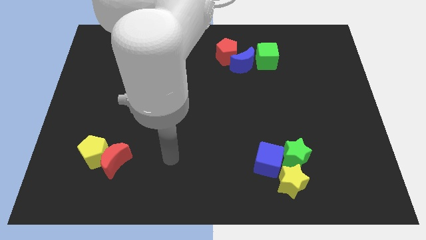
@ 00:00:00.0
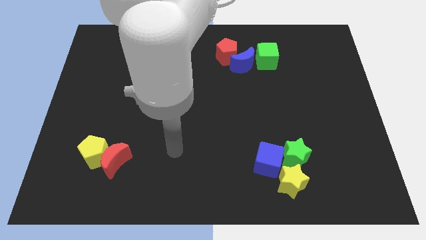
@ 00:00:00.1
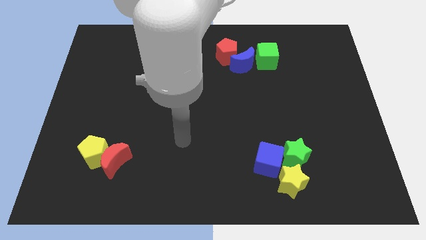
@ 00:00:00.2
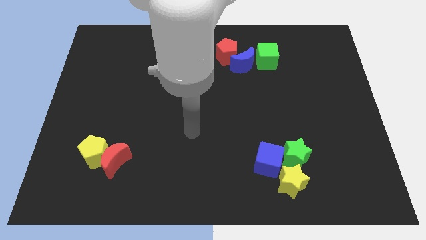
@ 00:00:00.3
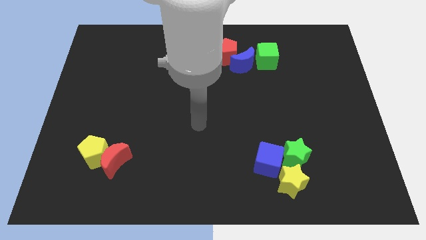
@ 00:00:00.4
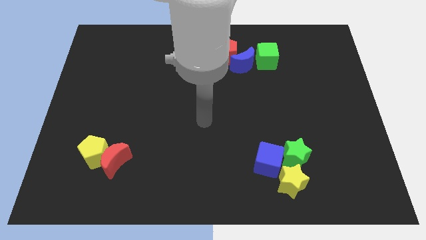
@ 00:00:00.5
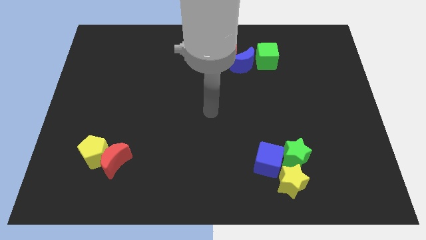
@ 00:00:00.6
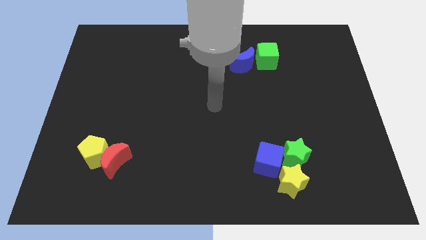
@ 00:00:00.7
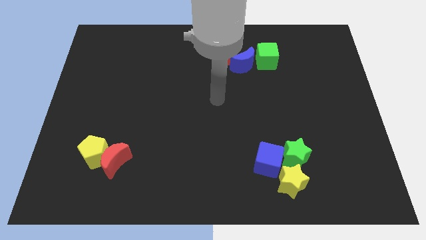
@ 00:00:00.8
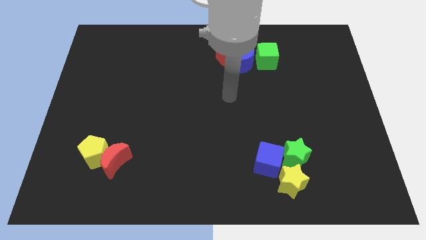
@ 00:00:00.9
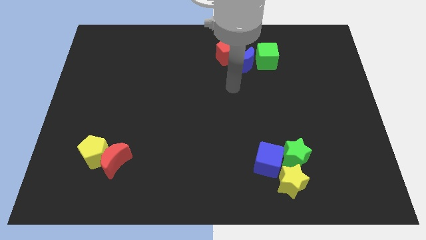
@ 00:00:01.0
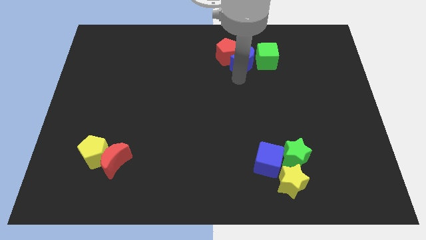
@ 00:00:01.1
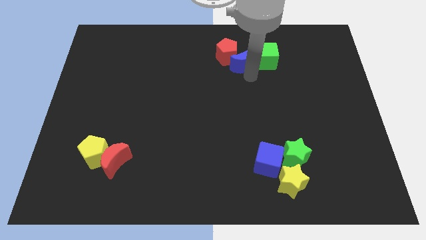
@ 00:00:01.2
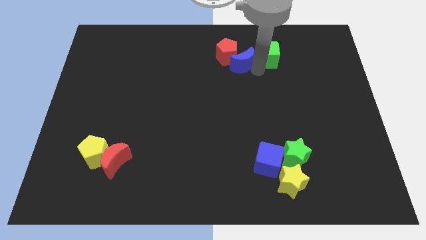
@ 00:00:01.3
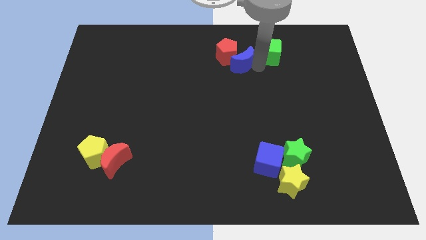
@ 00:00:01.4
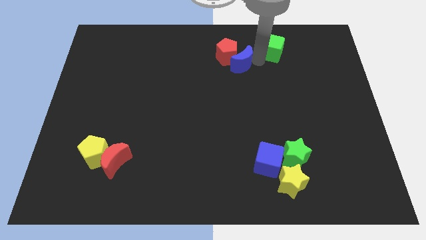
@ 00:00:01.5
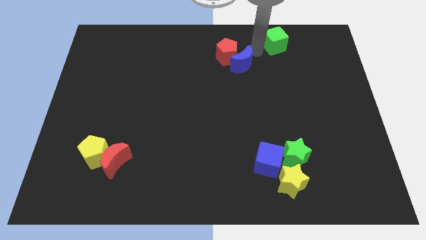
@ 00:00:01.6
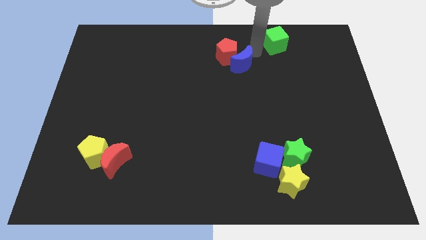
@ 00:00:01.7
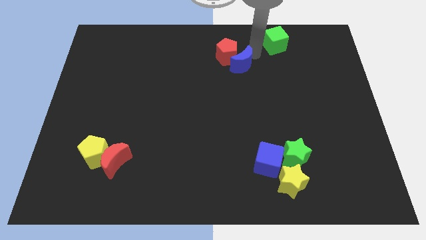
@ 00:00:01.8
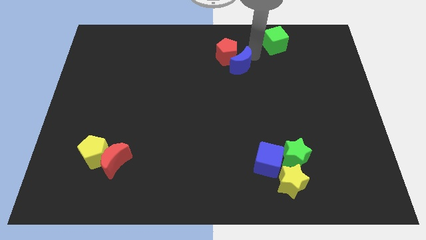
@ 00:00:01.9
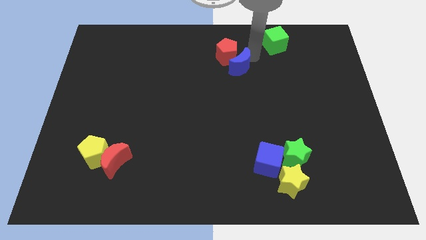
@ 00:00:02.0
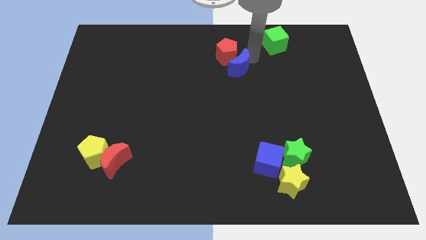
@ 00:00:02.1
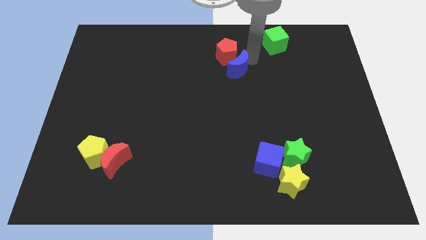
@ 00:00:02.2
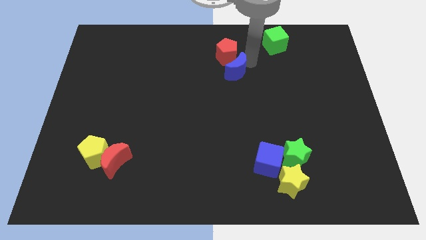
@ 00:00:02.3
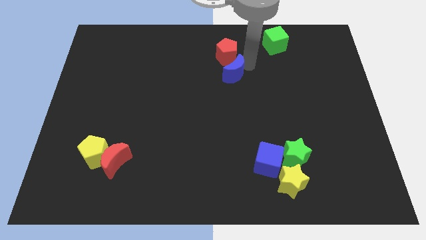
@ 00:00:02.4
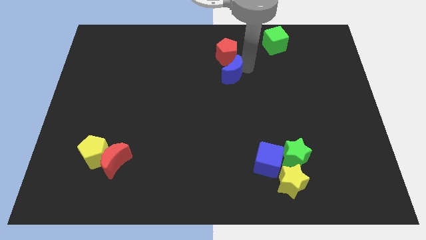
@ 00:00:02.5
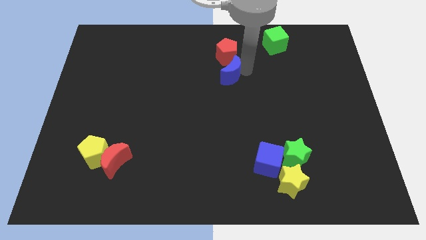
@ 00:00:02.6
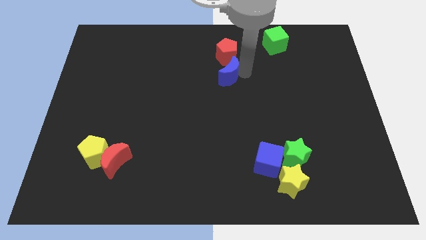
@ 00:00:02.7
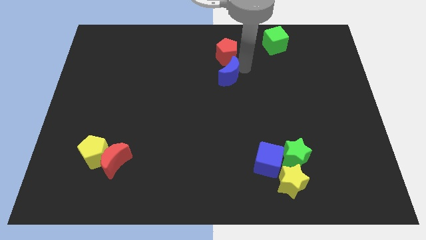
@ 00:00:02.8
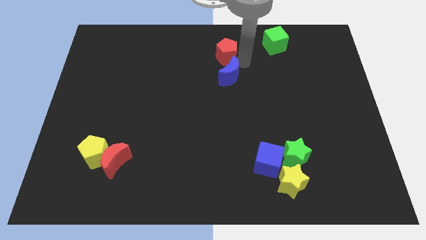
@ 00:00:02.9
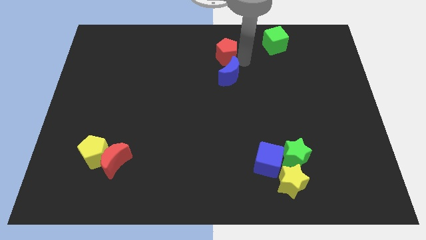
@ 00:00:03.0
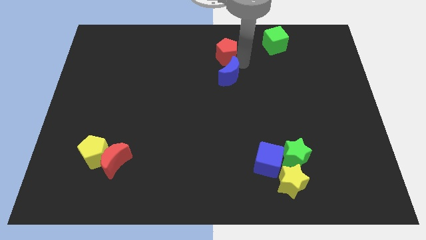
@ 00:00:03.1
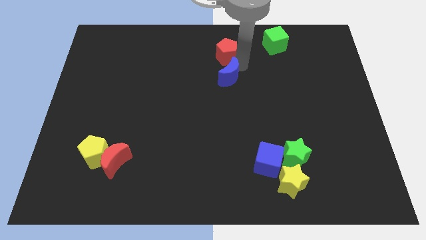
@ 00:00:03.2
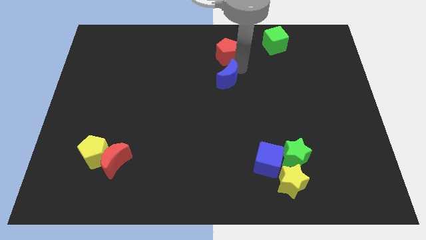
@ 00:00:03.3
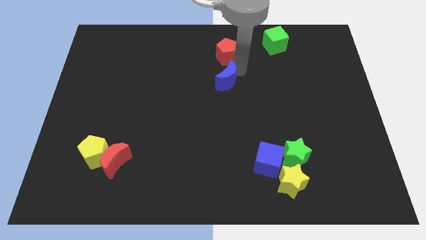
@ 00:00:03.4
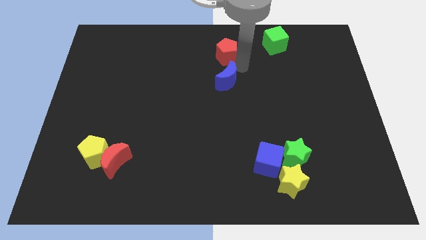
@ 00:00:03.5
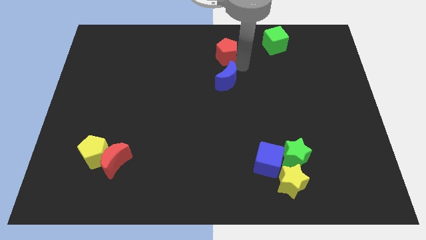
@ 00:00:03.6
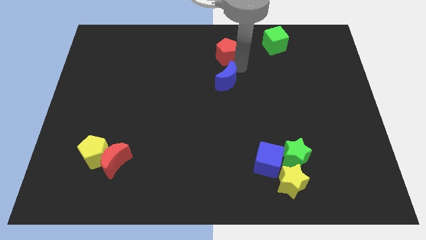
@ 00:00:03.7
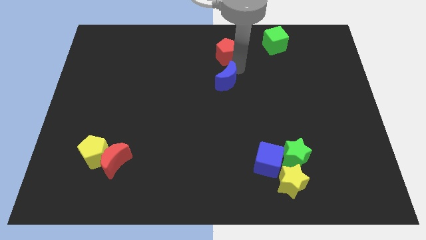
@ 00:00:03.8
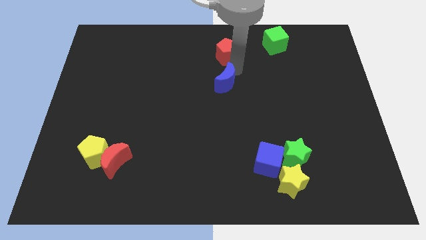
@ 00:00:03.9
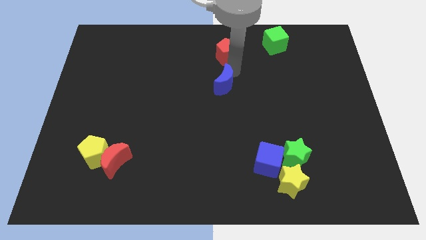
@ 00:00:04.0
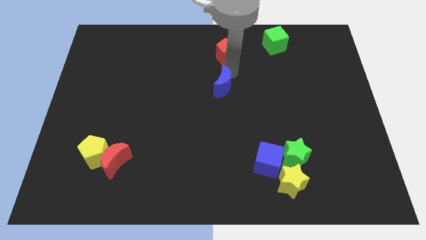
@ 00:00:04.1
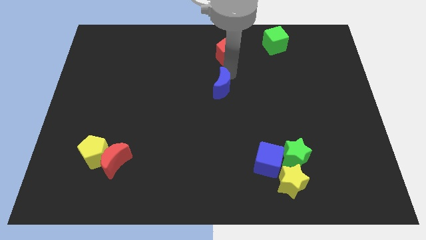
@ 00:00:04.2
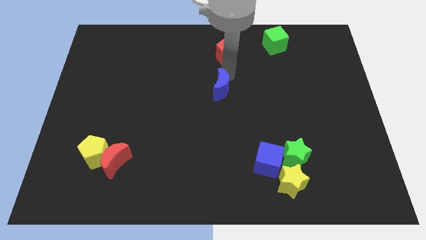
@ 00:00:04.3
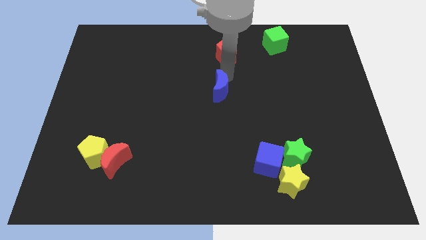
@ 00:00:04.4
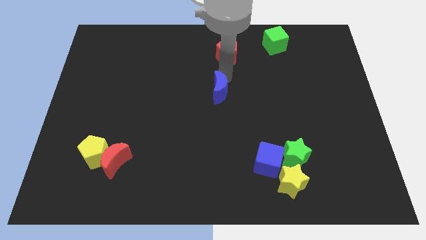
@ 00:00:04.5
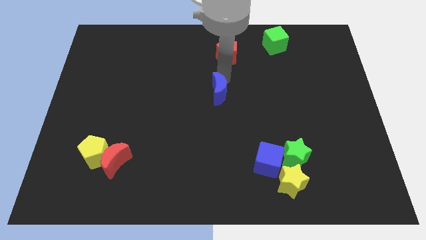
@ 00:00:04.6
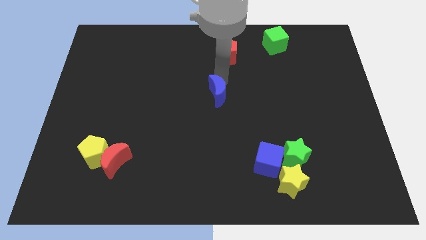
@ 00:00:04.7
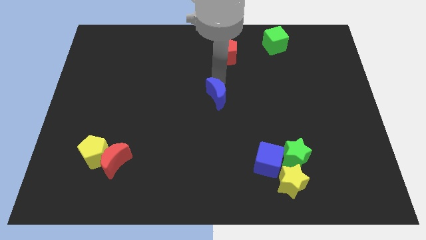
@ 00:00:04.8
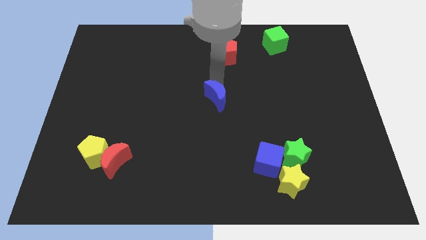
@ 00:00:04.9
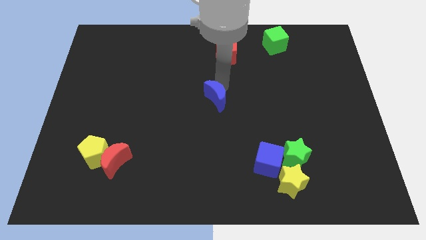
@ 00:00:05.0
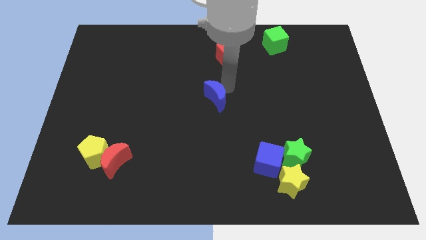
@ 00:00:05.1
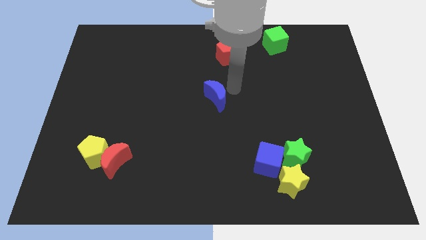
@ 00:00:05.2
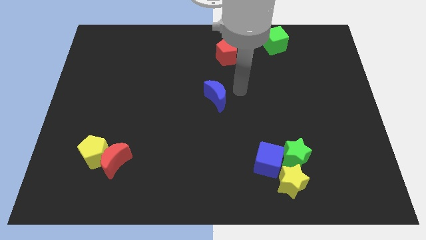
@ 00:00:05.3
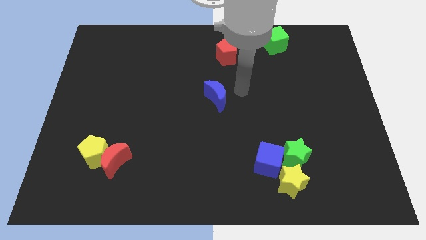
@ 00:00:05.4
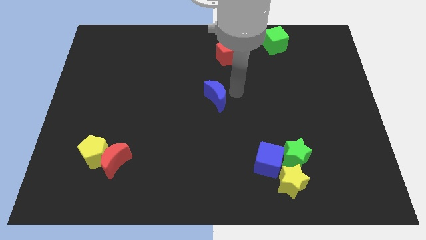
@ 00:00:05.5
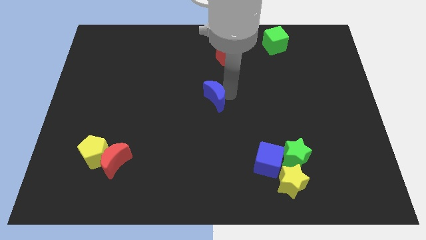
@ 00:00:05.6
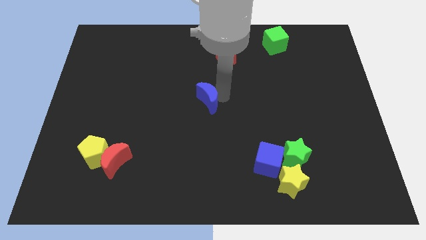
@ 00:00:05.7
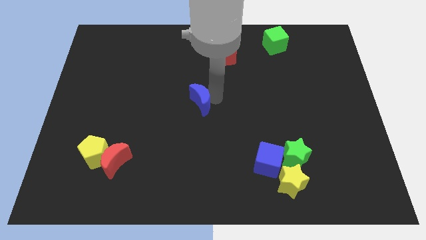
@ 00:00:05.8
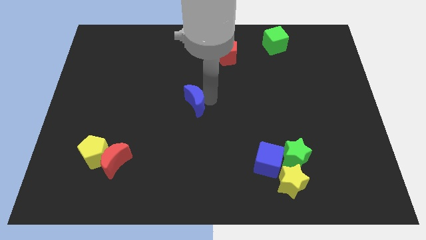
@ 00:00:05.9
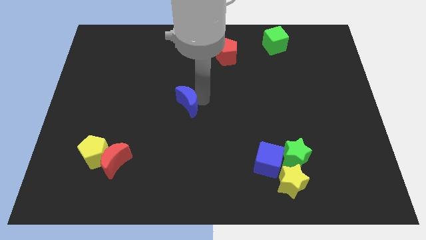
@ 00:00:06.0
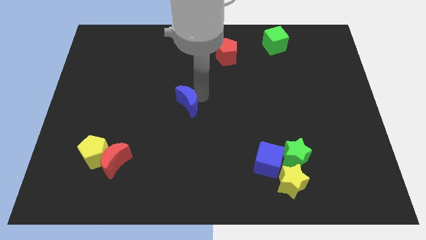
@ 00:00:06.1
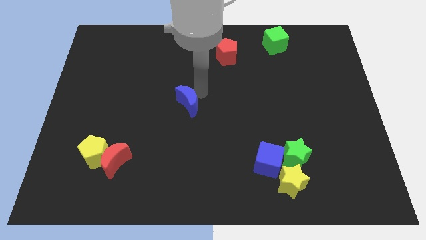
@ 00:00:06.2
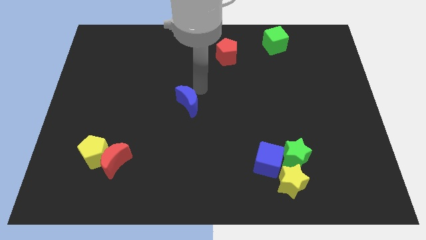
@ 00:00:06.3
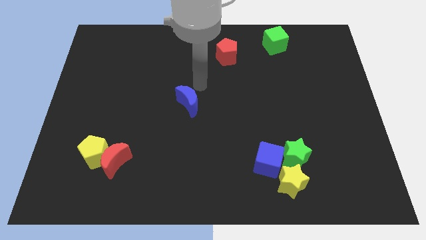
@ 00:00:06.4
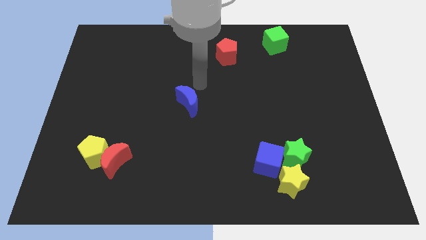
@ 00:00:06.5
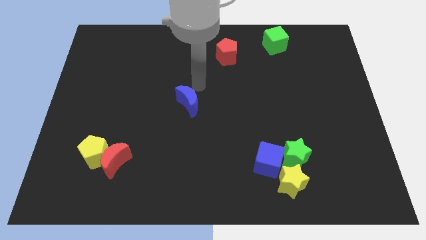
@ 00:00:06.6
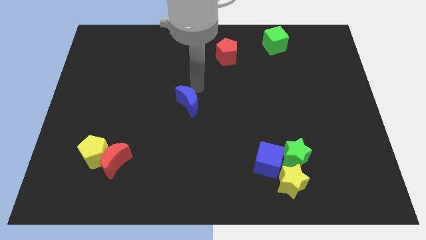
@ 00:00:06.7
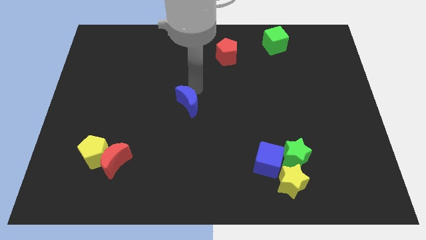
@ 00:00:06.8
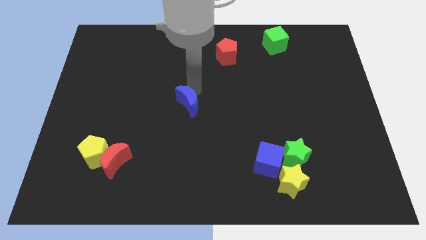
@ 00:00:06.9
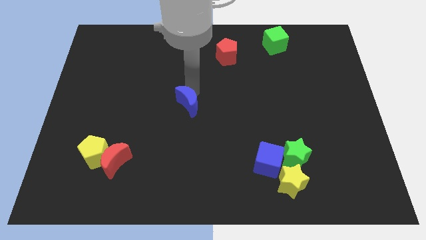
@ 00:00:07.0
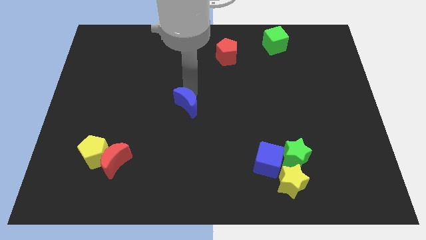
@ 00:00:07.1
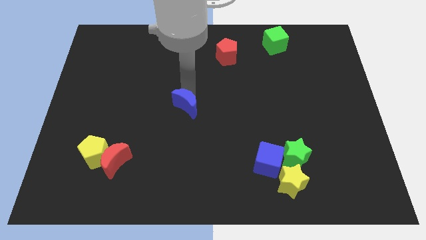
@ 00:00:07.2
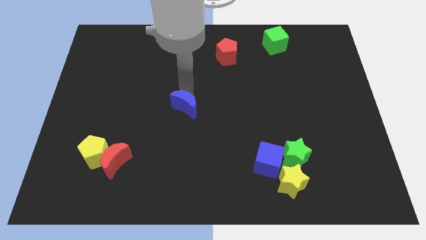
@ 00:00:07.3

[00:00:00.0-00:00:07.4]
push the blue moon down and then left

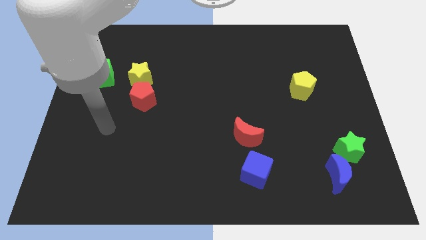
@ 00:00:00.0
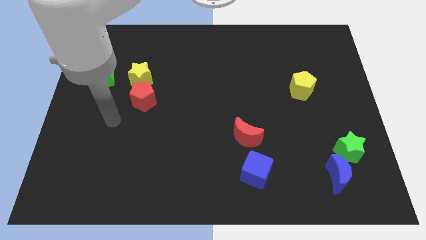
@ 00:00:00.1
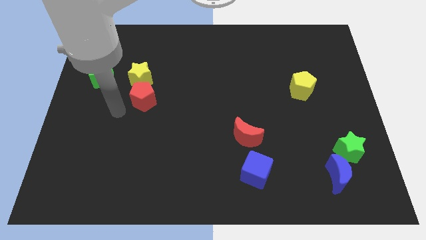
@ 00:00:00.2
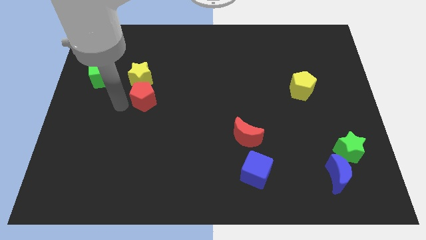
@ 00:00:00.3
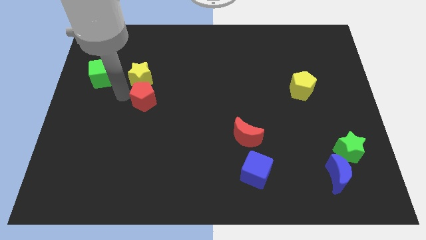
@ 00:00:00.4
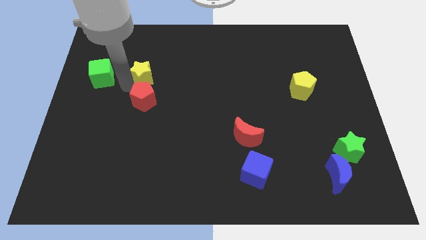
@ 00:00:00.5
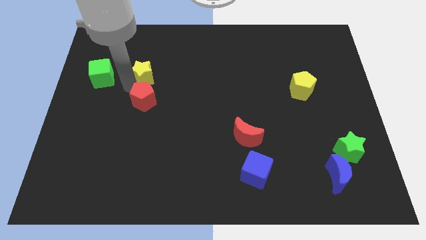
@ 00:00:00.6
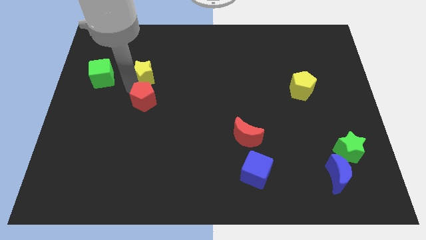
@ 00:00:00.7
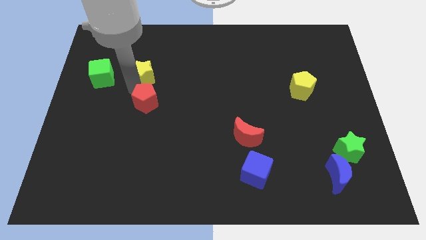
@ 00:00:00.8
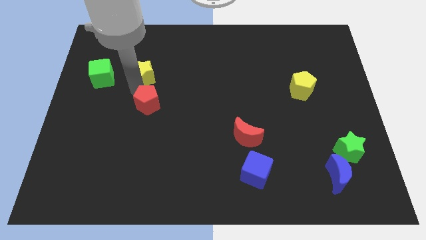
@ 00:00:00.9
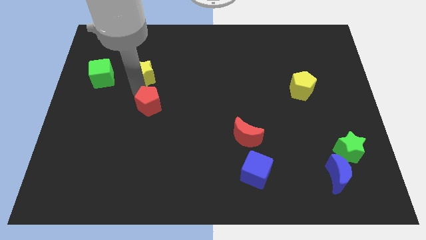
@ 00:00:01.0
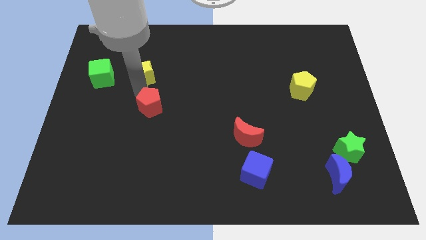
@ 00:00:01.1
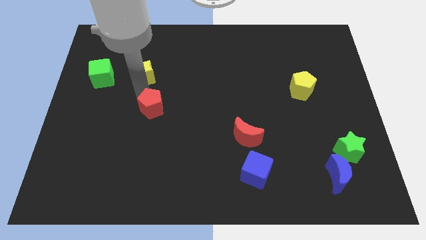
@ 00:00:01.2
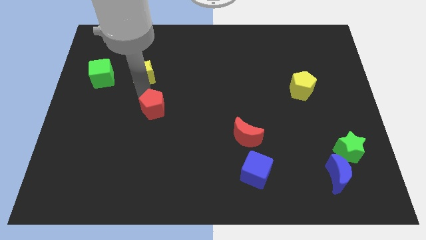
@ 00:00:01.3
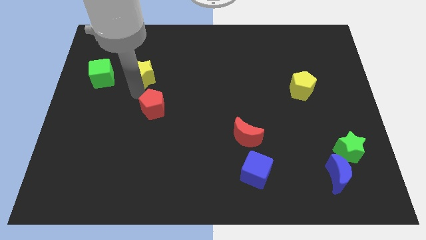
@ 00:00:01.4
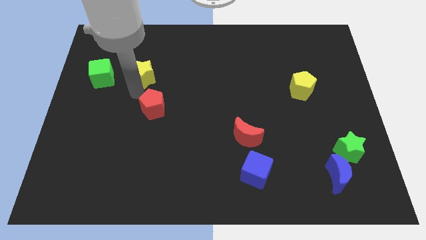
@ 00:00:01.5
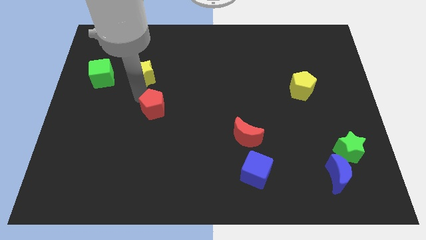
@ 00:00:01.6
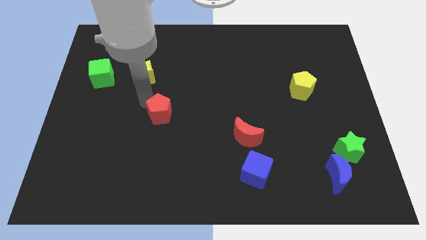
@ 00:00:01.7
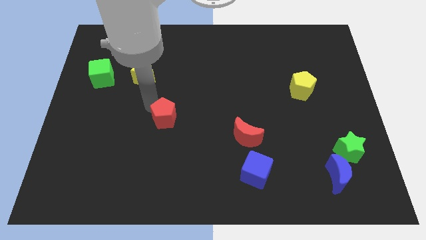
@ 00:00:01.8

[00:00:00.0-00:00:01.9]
push the red pentagon a little bit down and right diagonally
